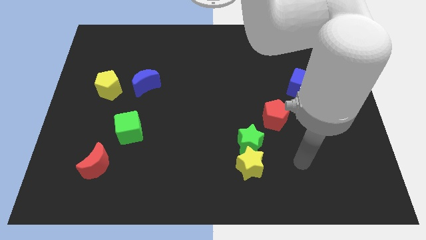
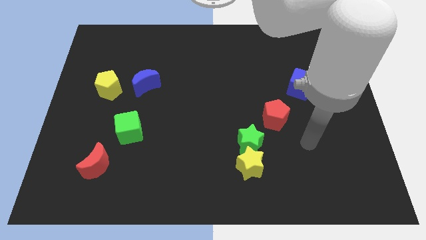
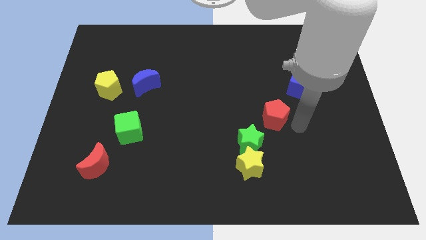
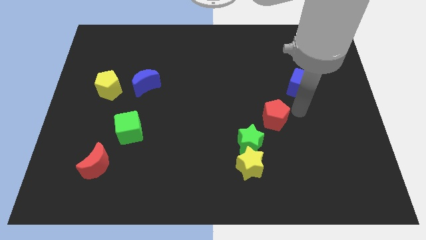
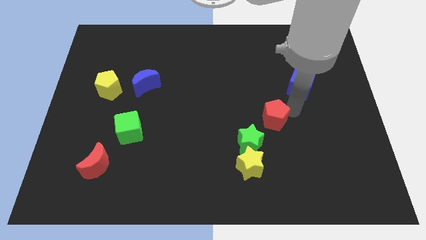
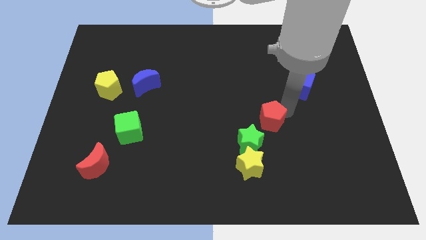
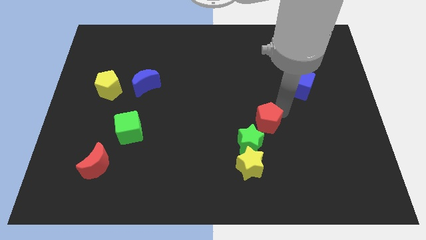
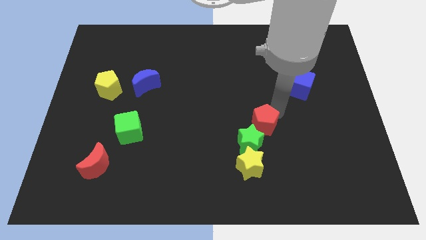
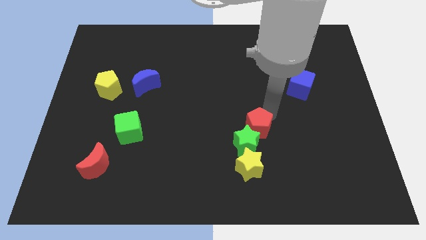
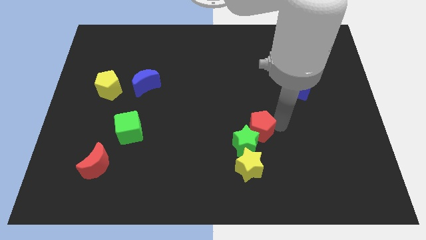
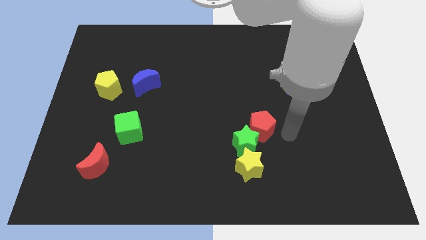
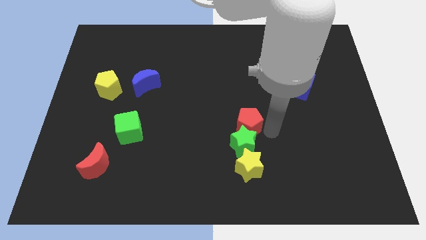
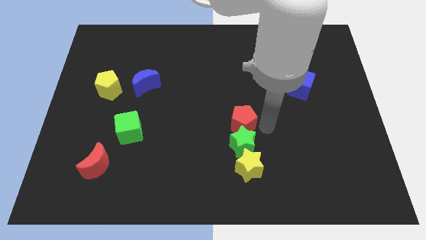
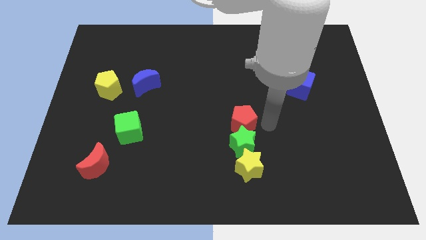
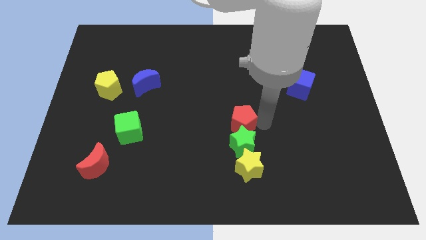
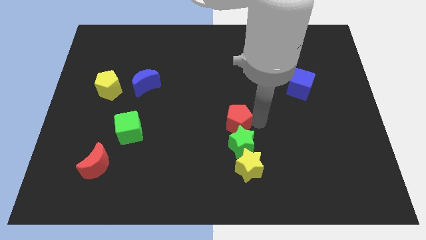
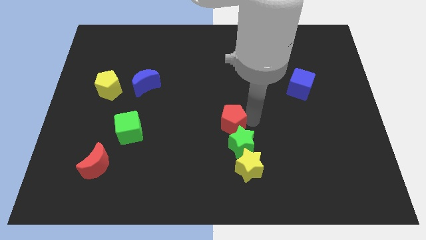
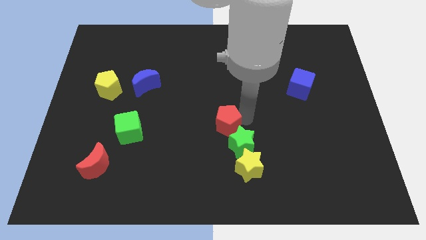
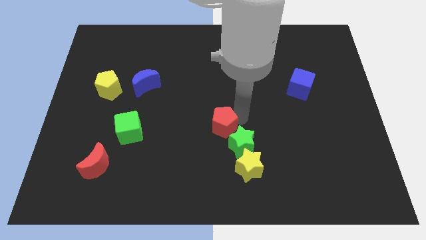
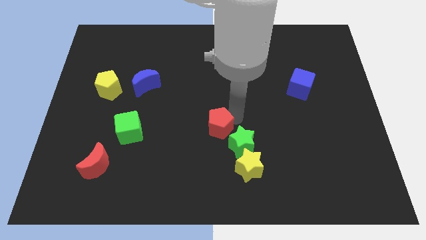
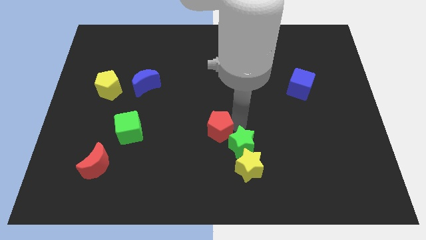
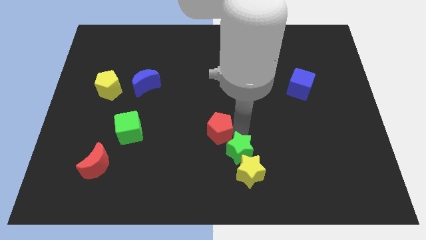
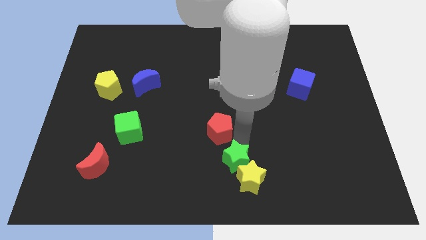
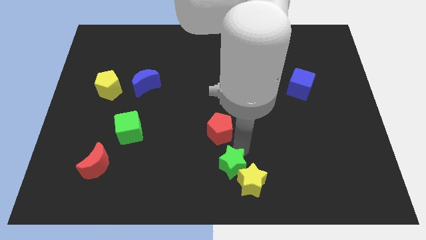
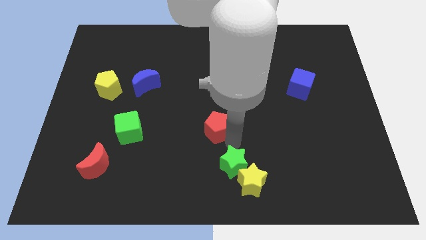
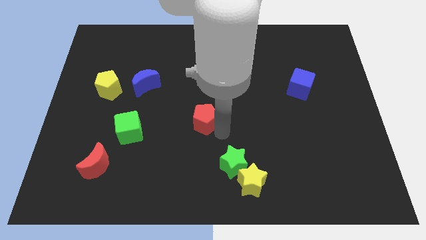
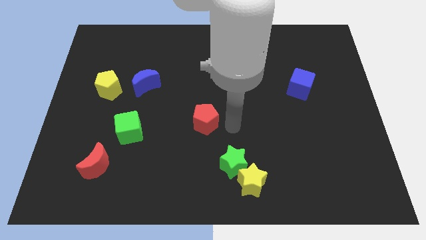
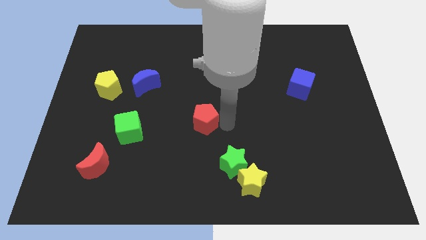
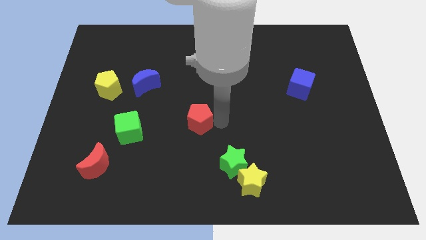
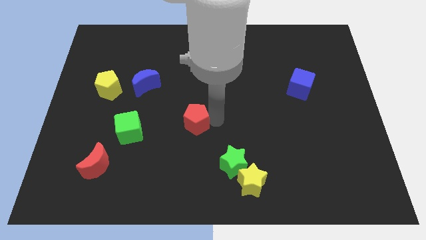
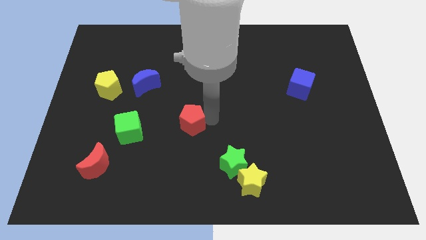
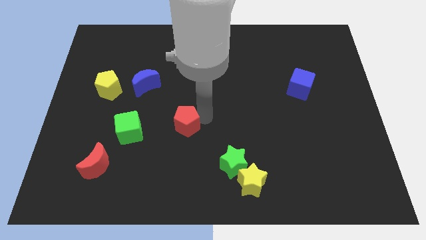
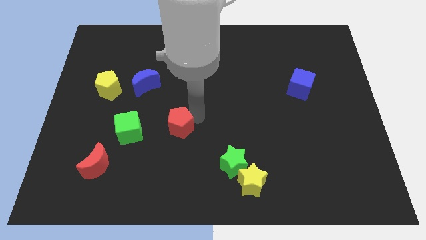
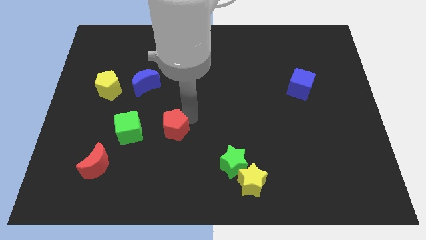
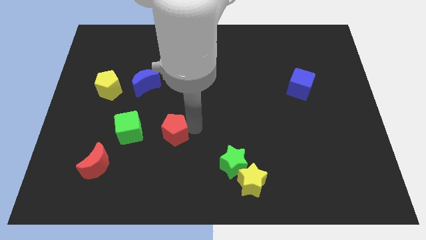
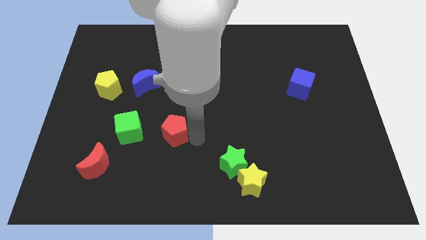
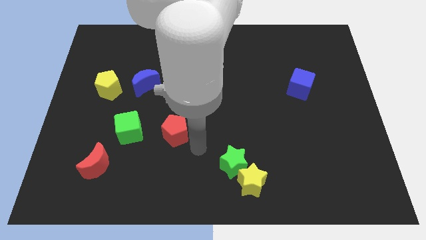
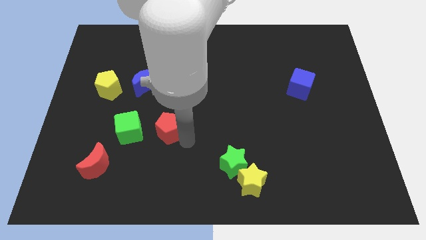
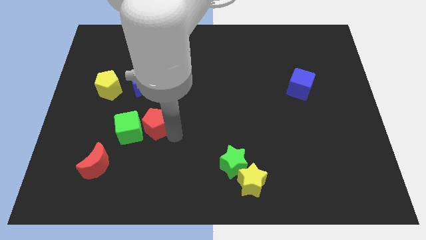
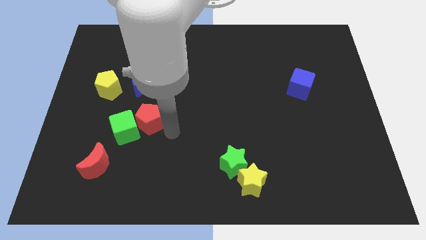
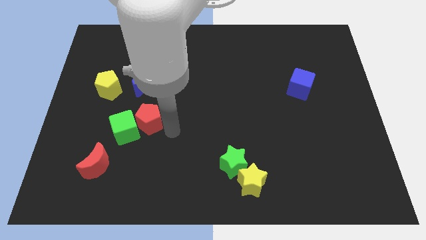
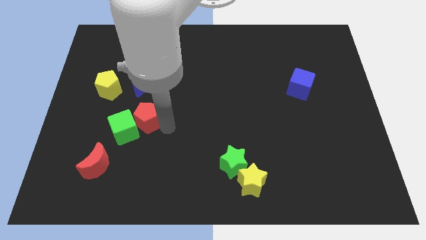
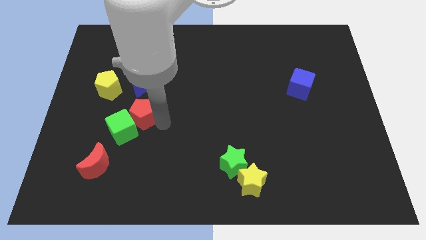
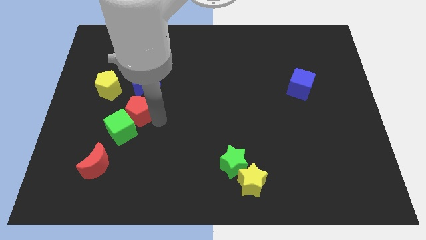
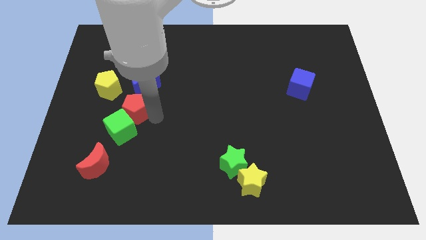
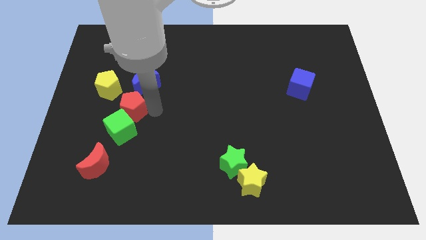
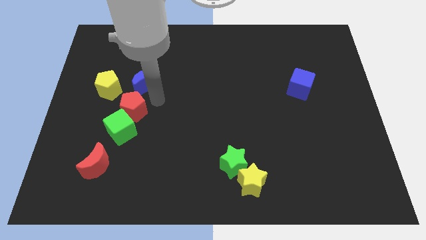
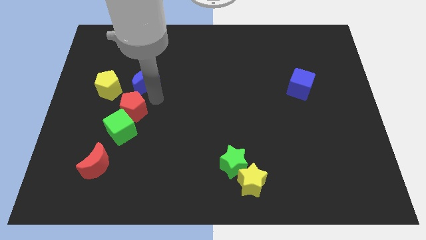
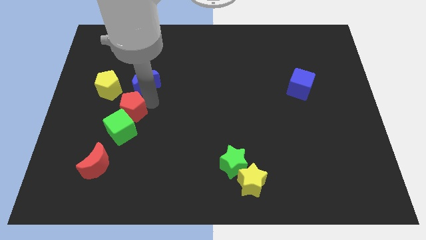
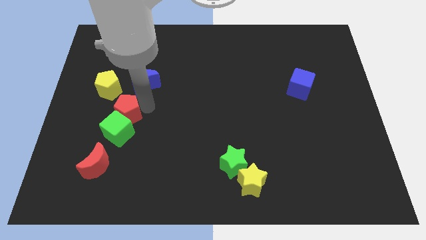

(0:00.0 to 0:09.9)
slide the red pentagon to the top side of the red moon

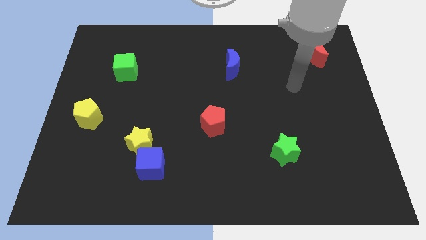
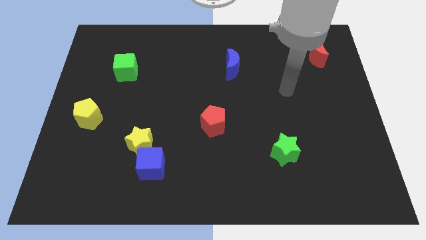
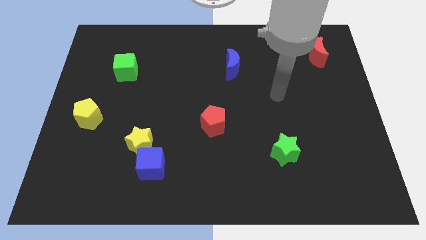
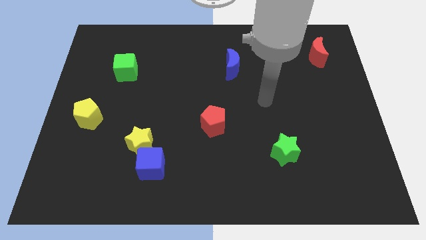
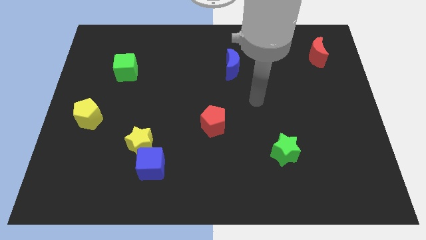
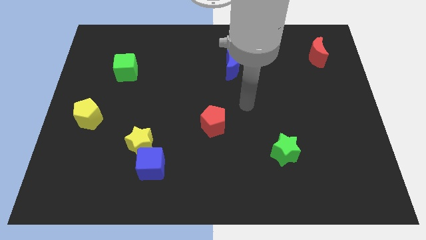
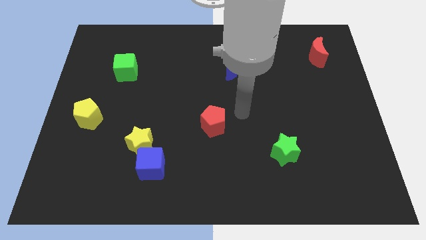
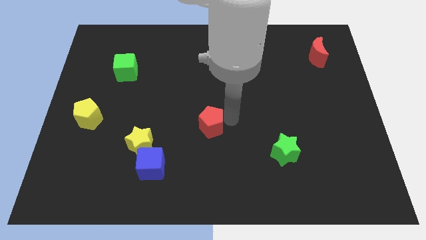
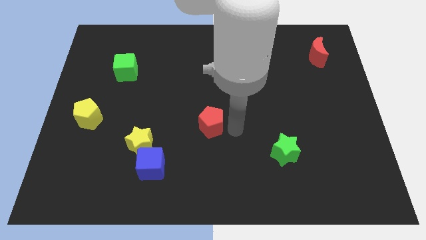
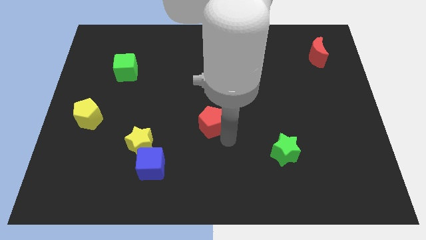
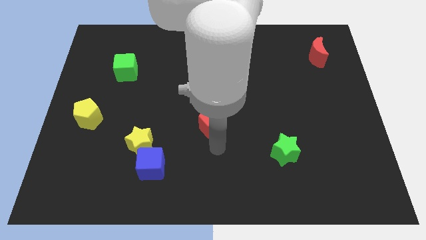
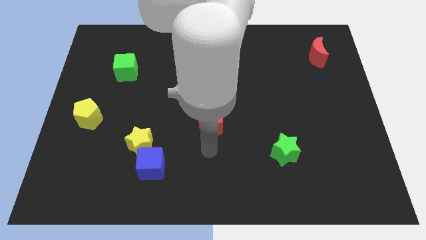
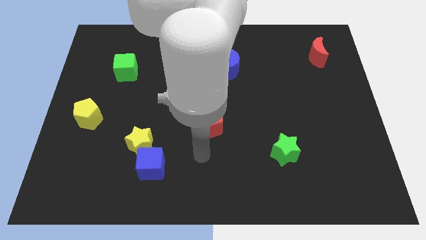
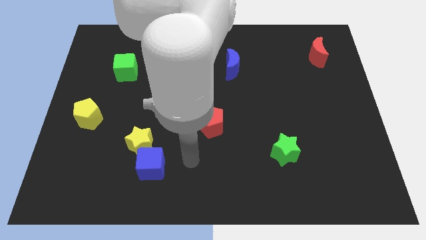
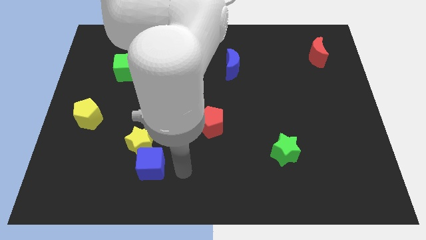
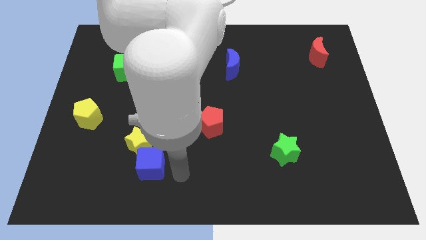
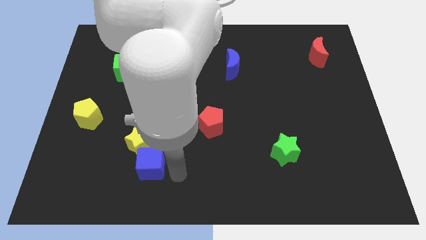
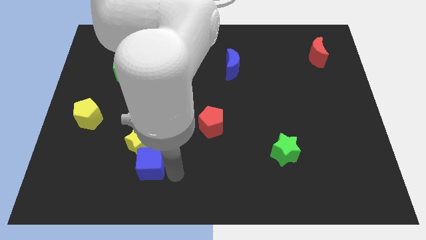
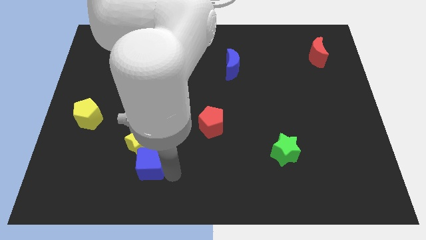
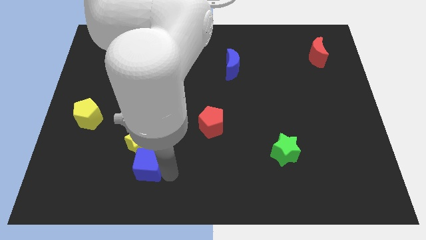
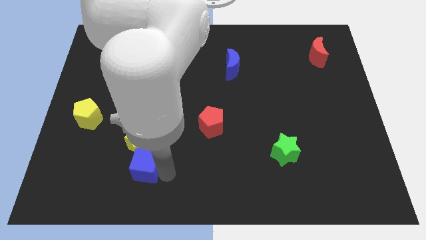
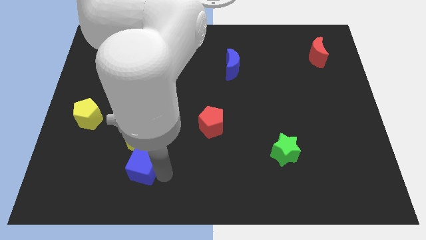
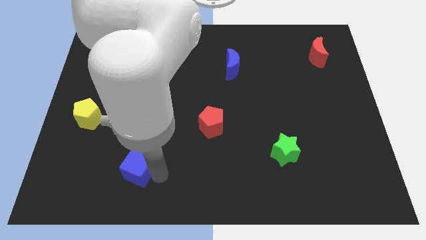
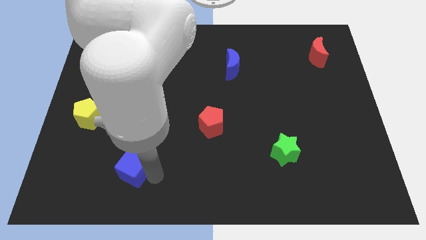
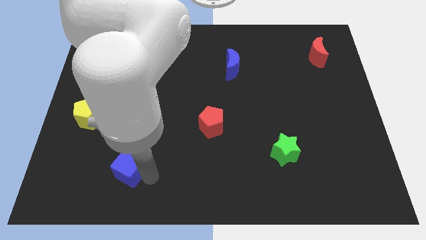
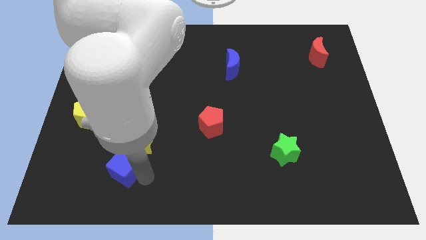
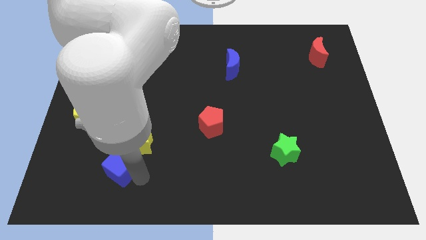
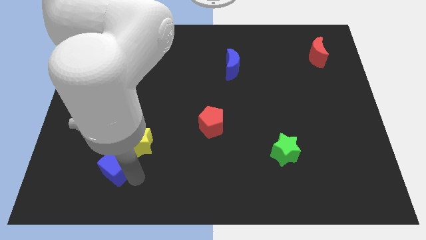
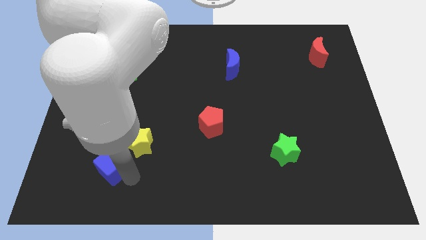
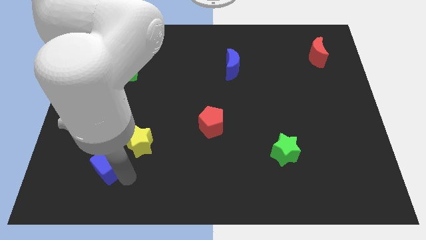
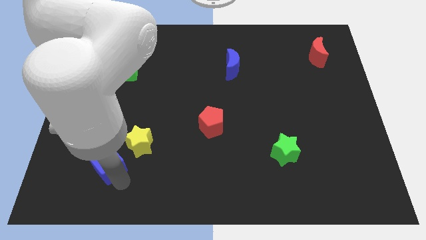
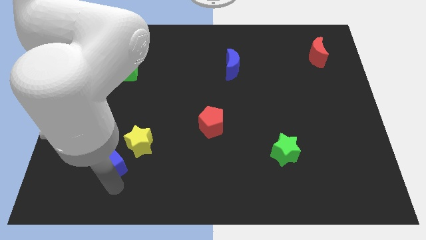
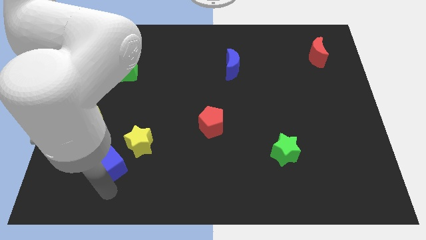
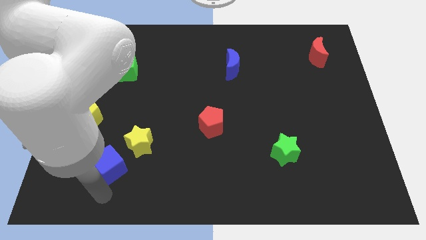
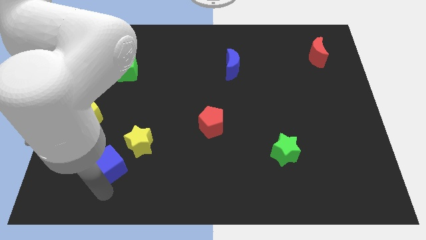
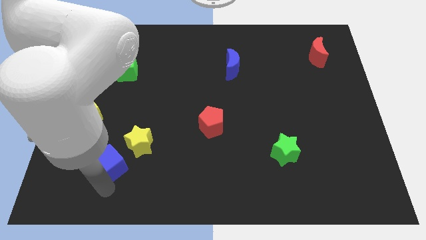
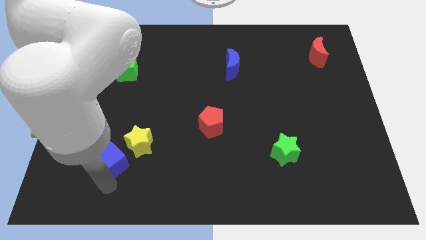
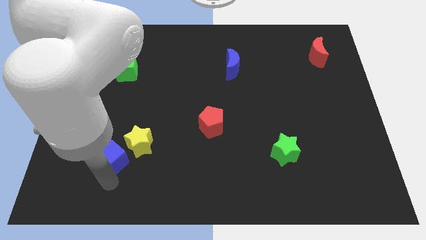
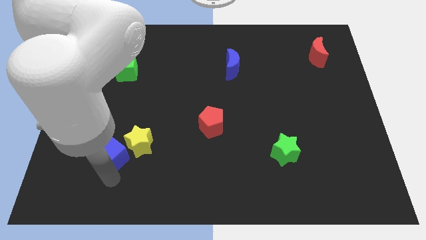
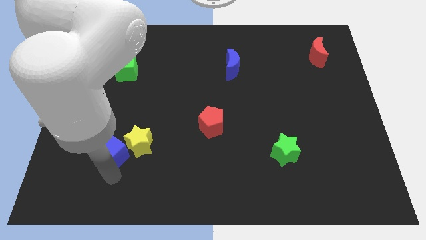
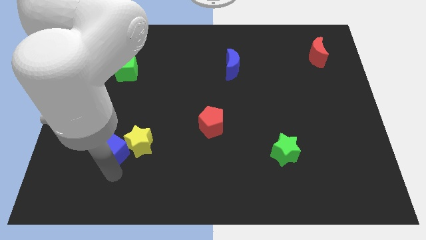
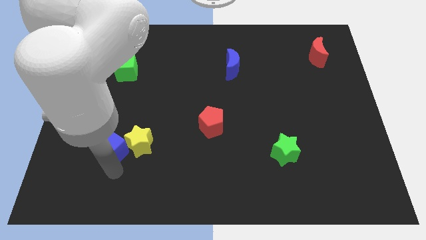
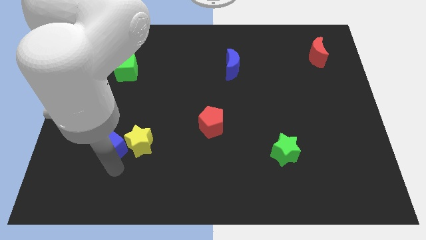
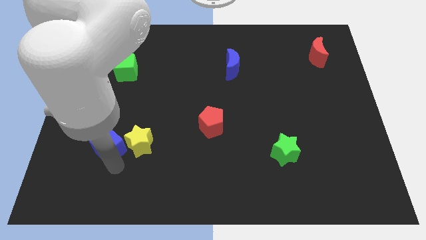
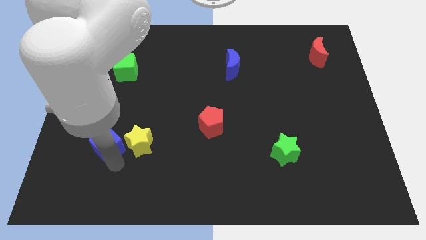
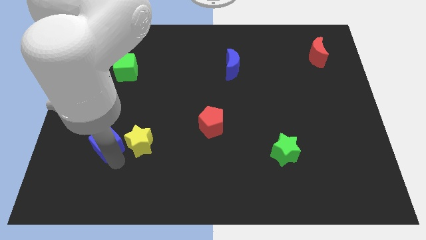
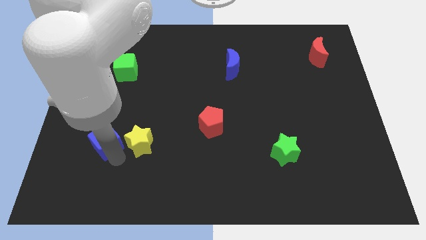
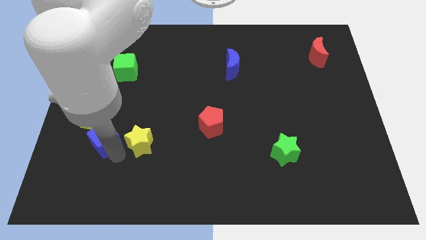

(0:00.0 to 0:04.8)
move the blue cube to the top left side of the yellow star
